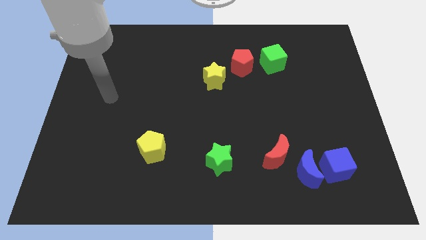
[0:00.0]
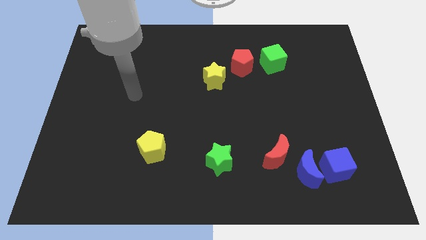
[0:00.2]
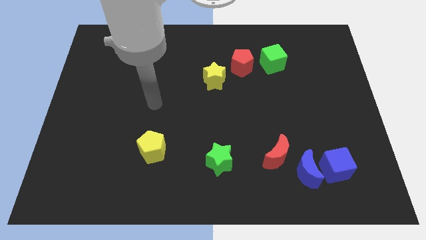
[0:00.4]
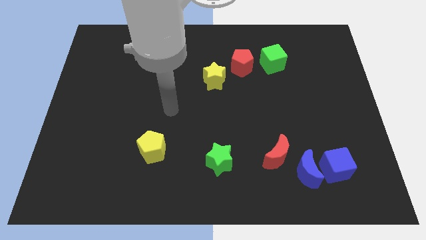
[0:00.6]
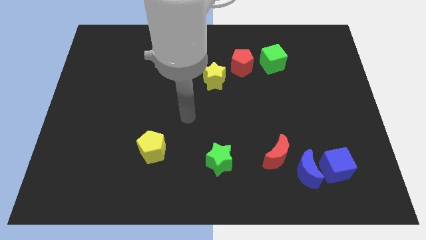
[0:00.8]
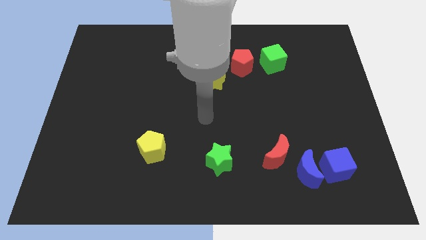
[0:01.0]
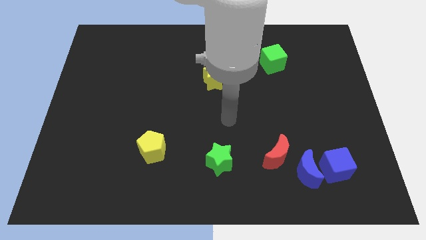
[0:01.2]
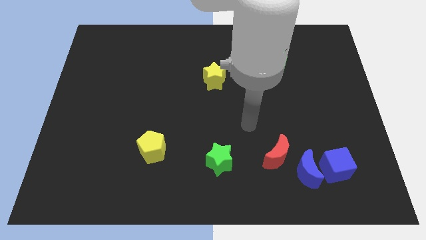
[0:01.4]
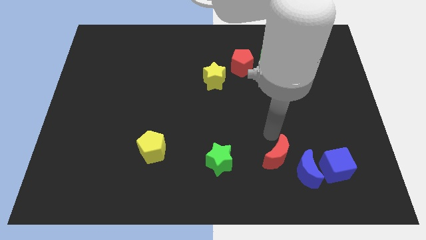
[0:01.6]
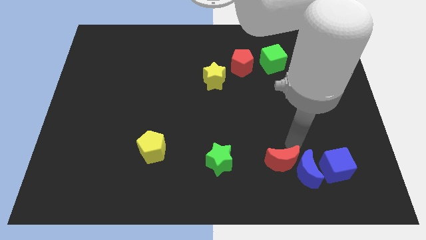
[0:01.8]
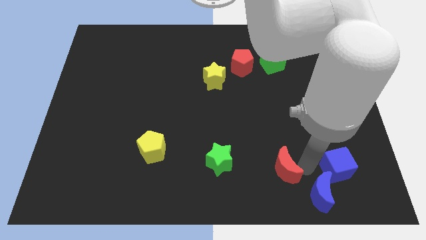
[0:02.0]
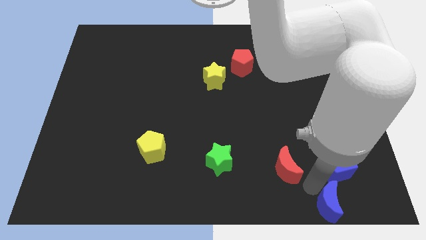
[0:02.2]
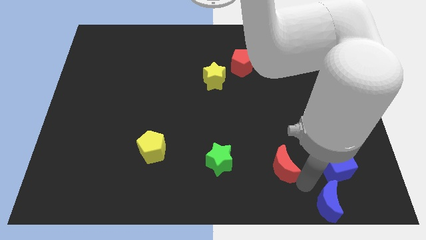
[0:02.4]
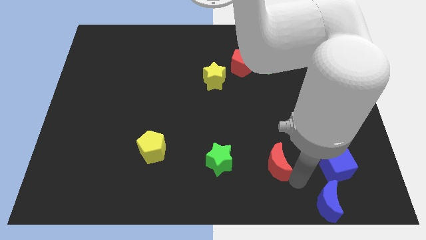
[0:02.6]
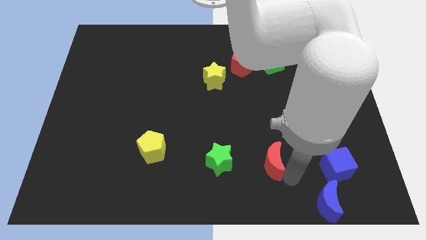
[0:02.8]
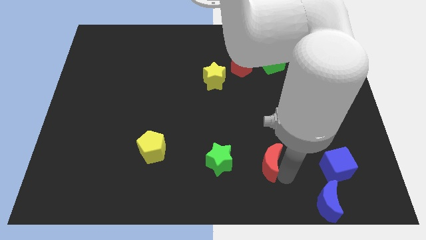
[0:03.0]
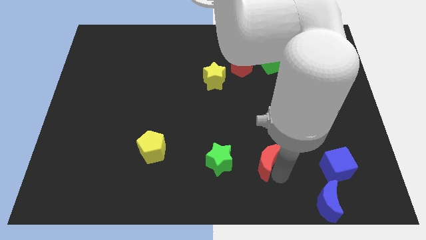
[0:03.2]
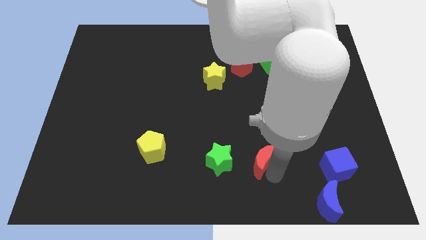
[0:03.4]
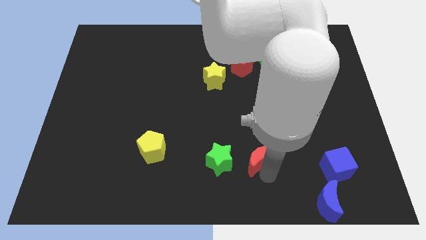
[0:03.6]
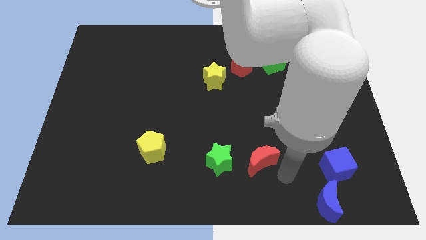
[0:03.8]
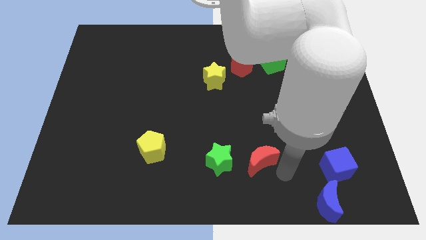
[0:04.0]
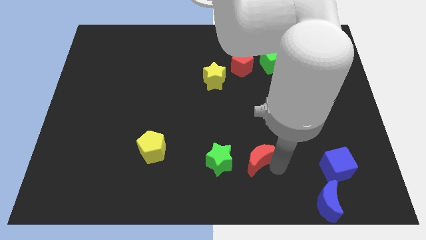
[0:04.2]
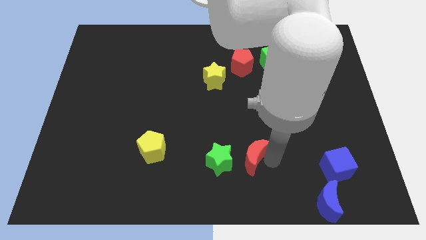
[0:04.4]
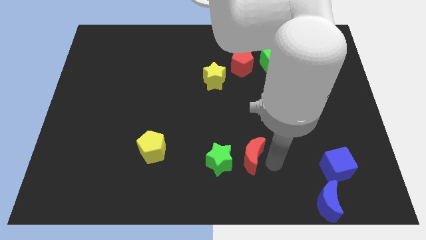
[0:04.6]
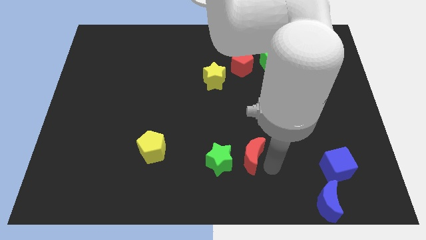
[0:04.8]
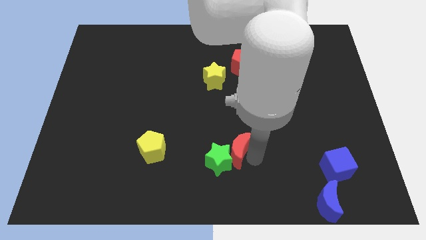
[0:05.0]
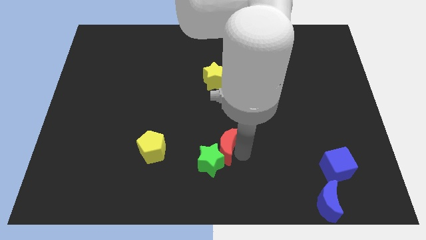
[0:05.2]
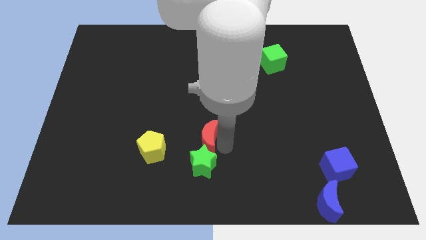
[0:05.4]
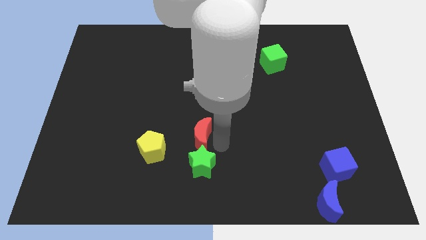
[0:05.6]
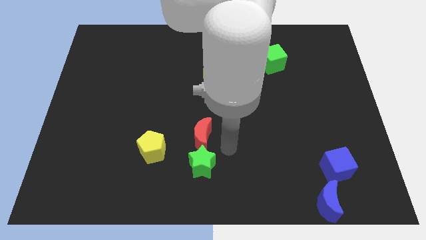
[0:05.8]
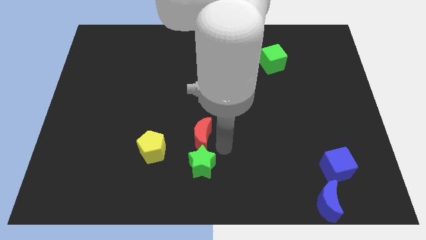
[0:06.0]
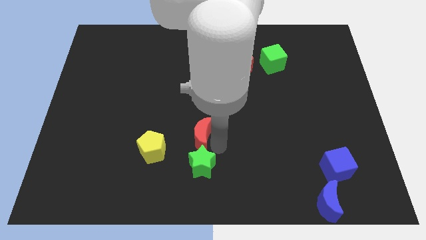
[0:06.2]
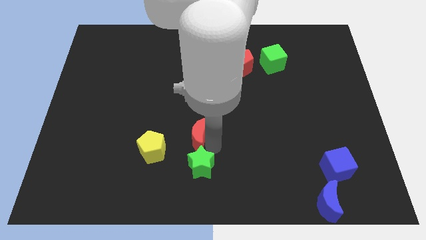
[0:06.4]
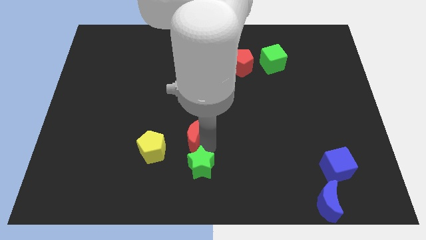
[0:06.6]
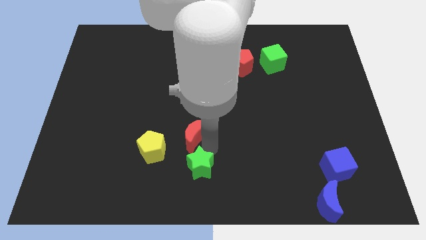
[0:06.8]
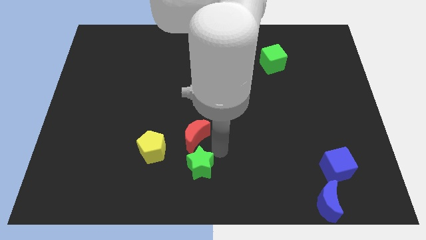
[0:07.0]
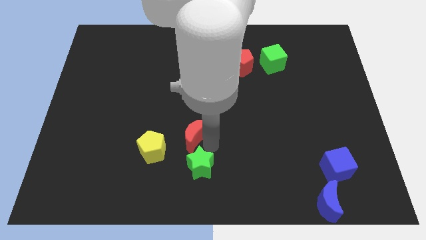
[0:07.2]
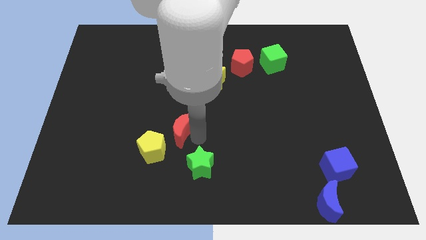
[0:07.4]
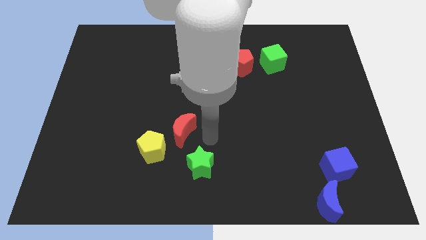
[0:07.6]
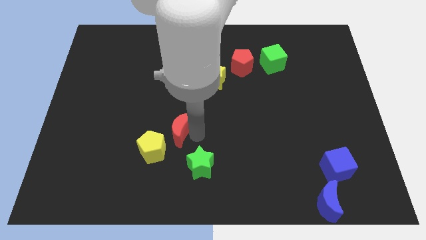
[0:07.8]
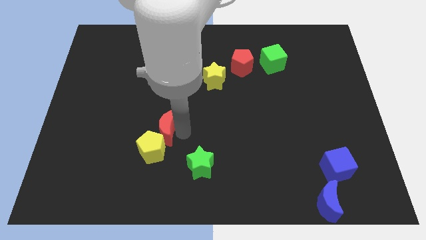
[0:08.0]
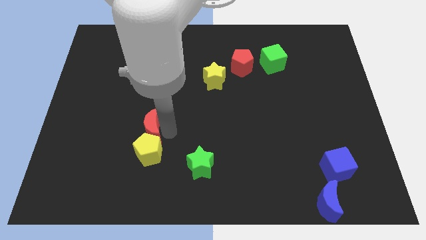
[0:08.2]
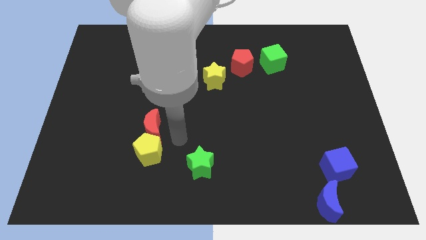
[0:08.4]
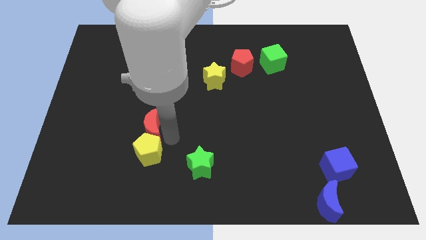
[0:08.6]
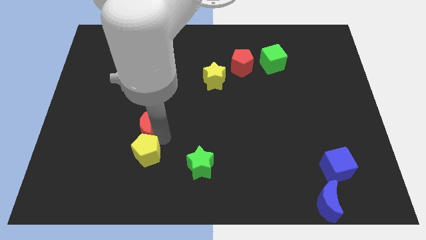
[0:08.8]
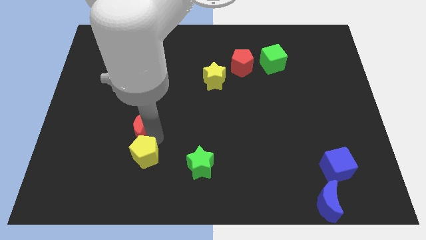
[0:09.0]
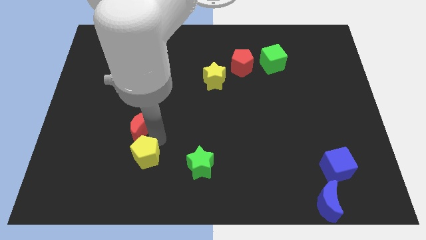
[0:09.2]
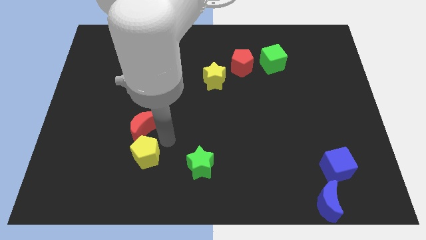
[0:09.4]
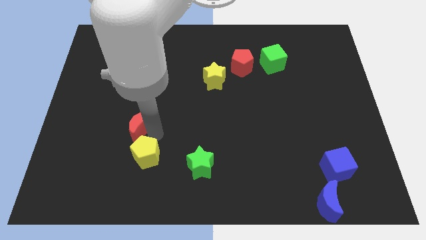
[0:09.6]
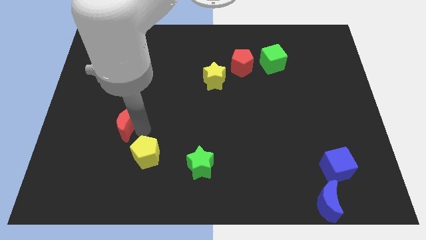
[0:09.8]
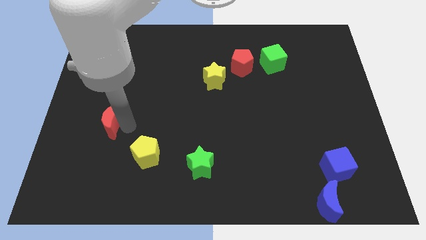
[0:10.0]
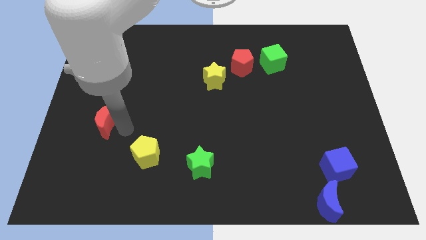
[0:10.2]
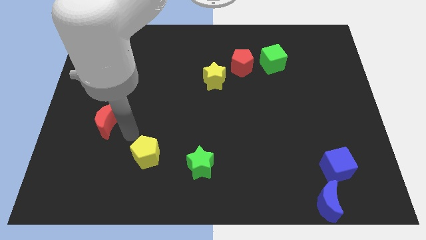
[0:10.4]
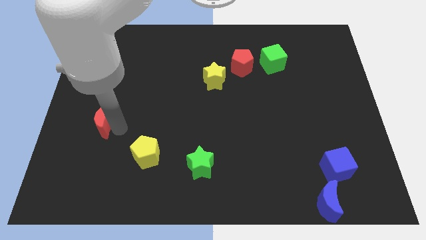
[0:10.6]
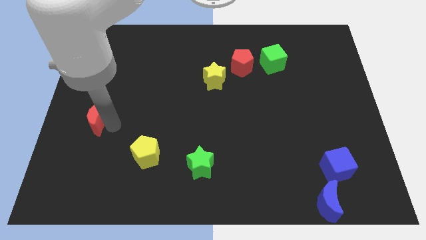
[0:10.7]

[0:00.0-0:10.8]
slide the red moon to the left side of the board
